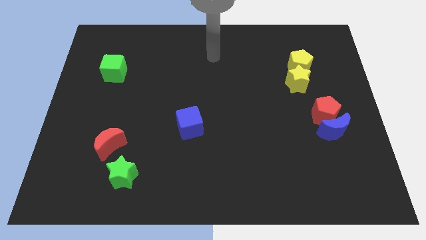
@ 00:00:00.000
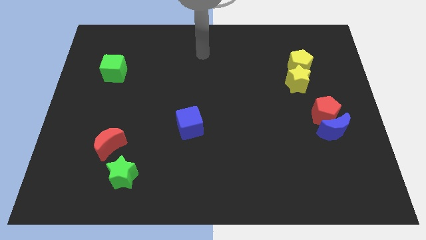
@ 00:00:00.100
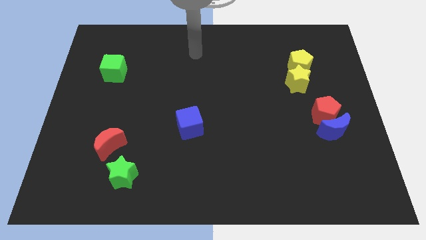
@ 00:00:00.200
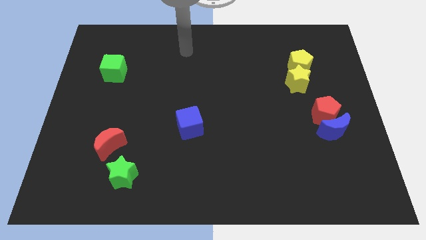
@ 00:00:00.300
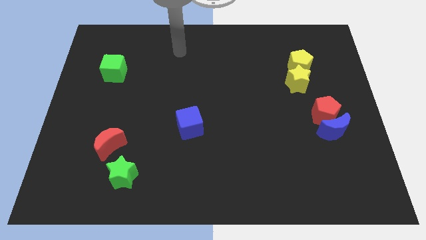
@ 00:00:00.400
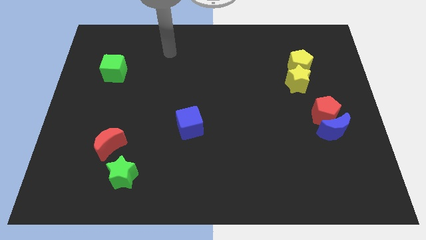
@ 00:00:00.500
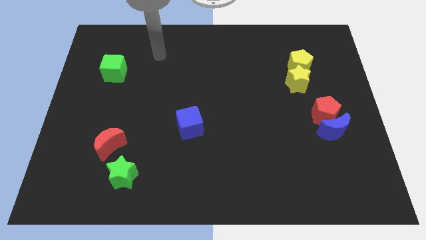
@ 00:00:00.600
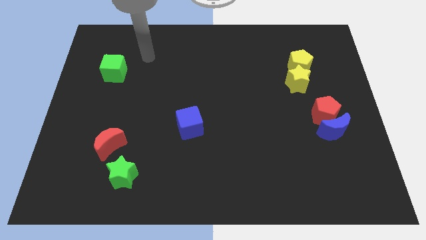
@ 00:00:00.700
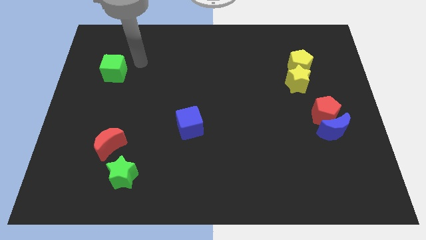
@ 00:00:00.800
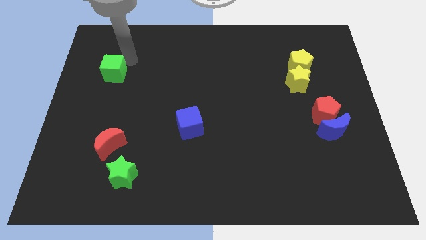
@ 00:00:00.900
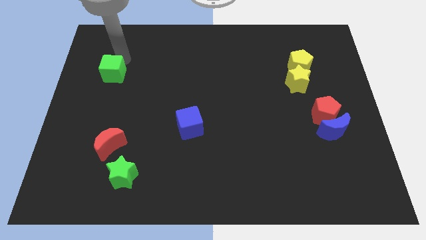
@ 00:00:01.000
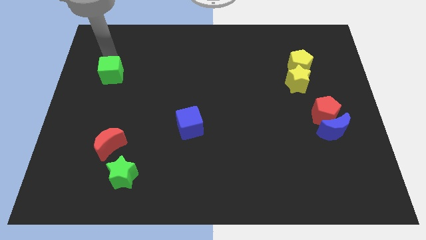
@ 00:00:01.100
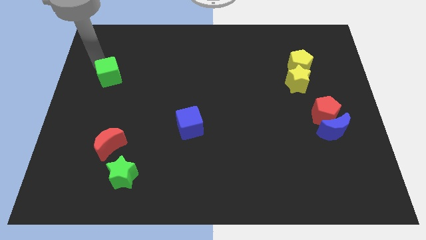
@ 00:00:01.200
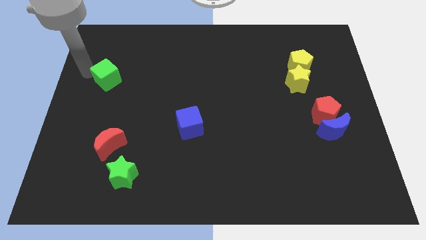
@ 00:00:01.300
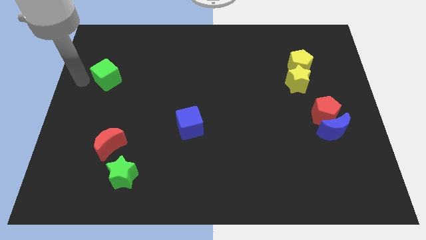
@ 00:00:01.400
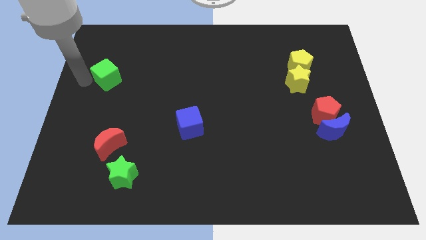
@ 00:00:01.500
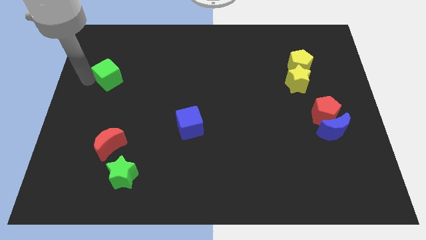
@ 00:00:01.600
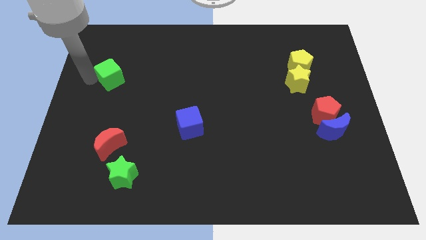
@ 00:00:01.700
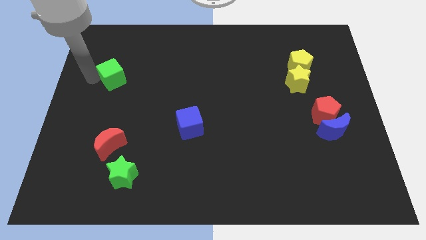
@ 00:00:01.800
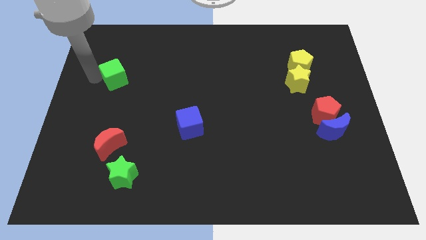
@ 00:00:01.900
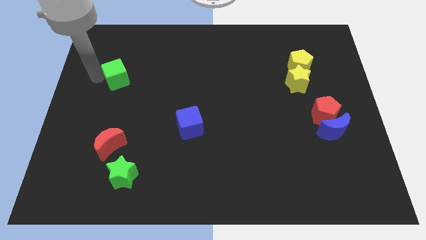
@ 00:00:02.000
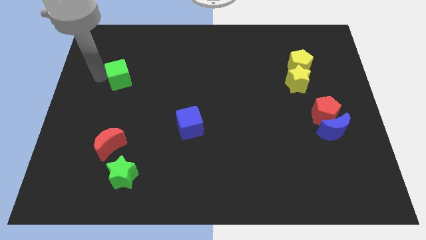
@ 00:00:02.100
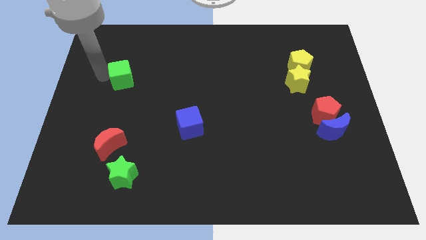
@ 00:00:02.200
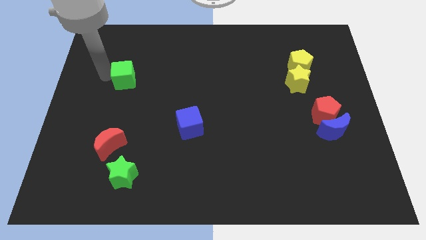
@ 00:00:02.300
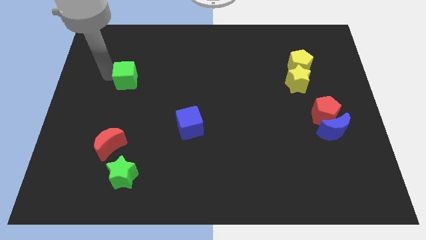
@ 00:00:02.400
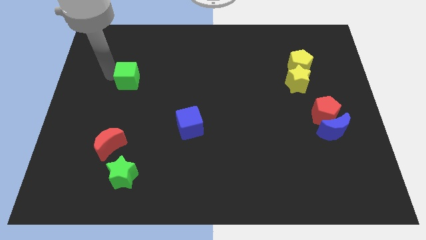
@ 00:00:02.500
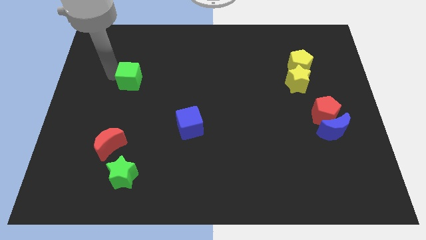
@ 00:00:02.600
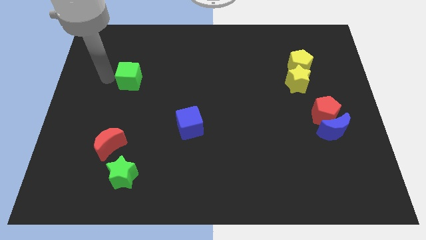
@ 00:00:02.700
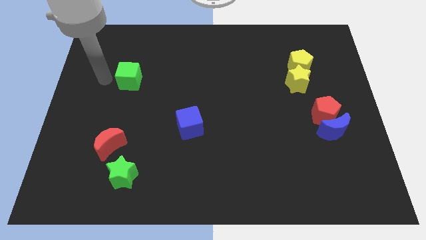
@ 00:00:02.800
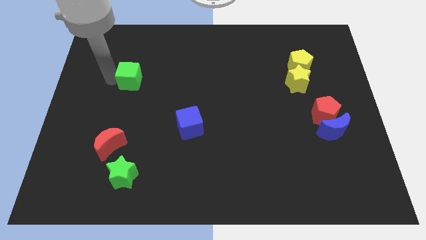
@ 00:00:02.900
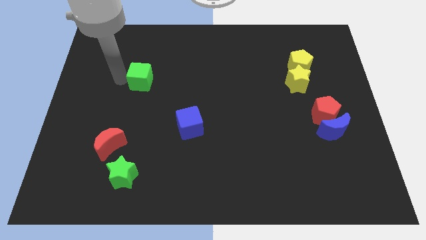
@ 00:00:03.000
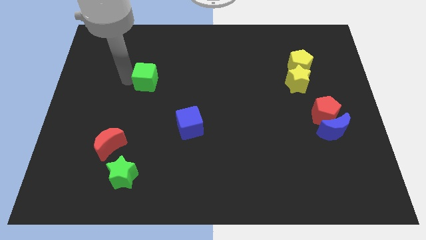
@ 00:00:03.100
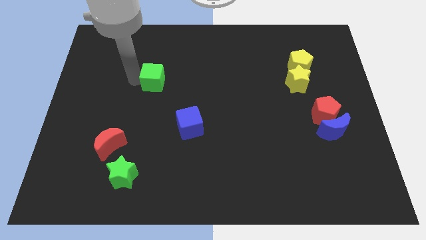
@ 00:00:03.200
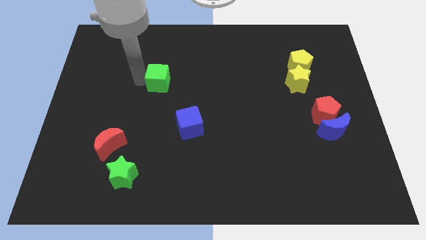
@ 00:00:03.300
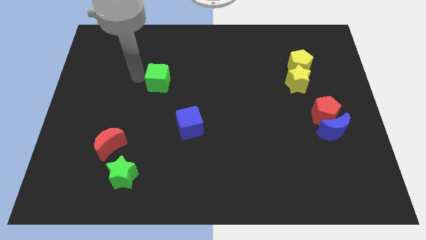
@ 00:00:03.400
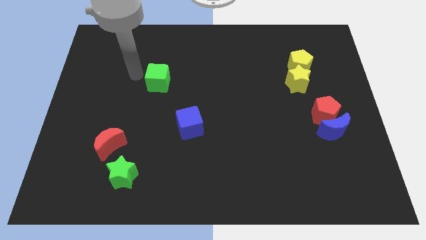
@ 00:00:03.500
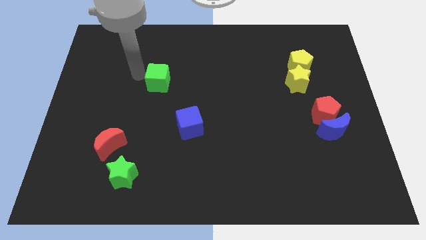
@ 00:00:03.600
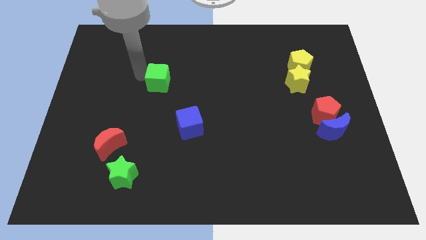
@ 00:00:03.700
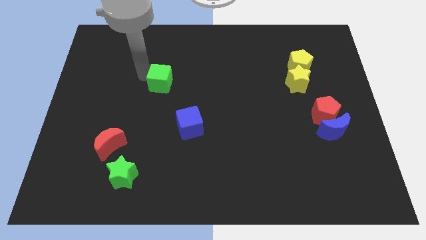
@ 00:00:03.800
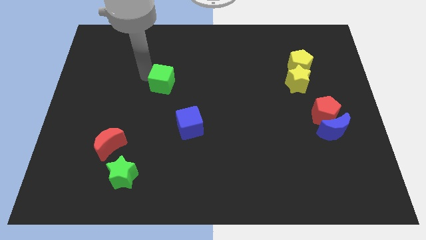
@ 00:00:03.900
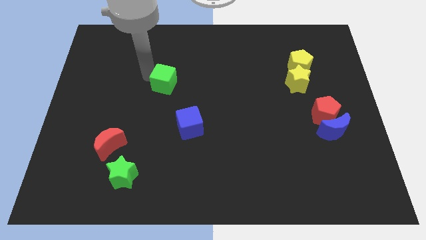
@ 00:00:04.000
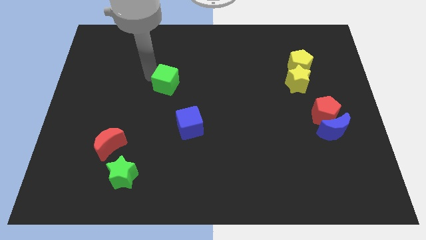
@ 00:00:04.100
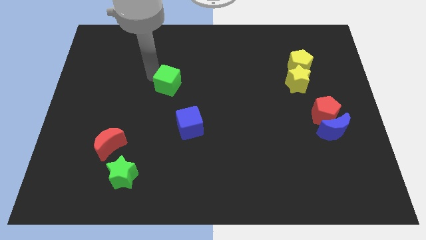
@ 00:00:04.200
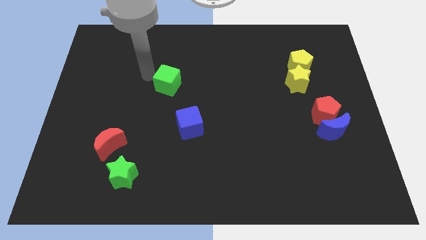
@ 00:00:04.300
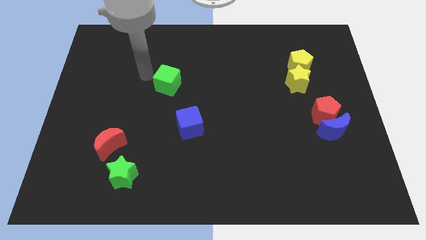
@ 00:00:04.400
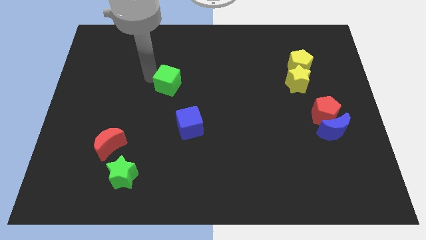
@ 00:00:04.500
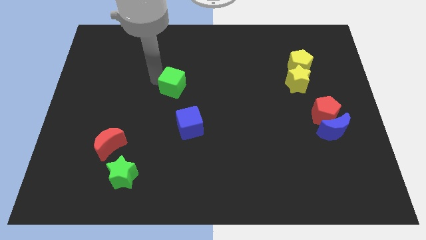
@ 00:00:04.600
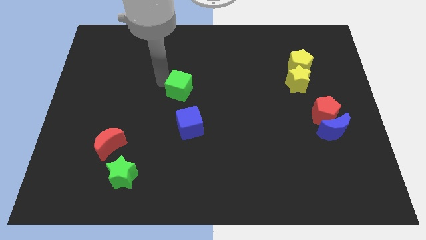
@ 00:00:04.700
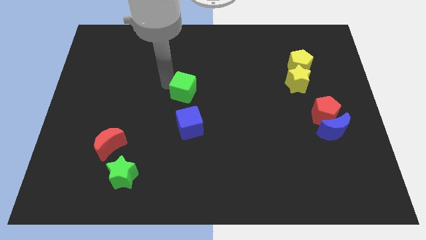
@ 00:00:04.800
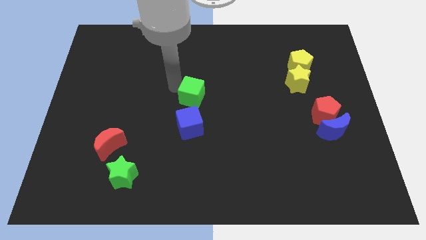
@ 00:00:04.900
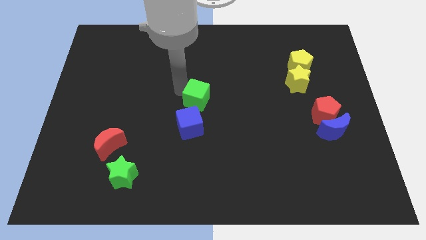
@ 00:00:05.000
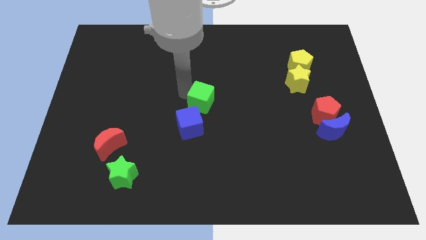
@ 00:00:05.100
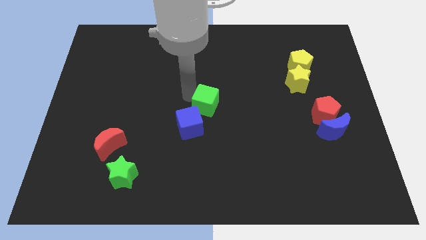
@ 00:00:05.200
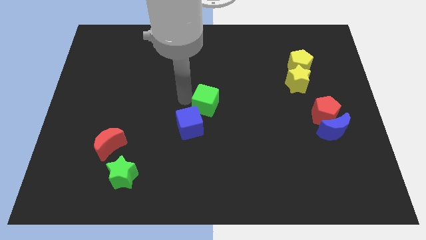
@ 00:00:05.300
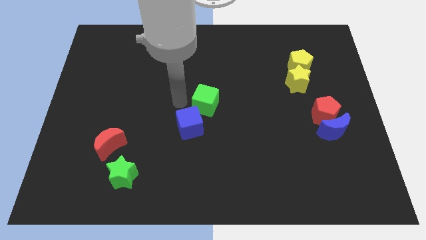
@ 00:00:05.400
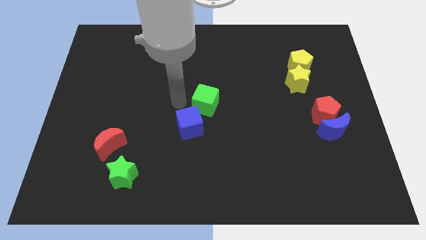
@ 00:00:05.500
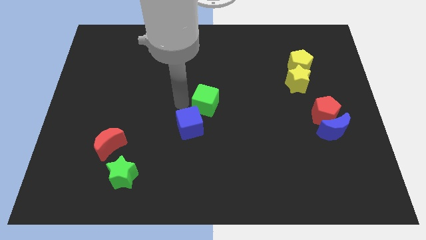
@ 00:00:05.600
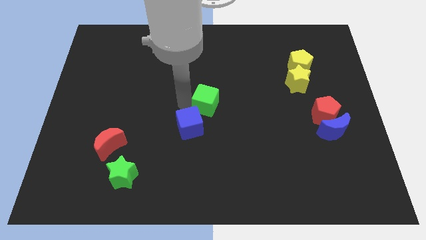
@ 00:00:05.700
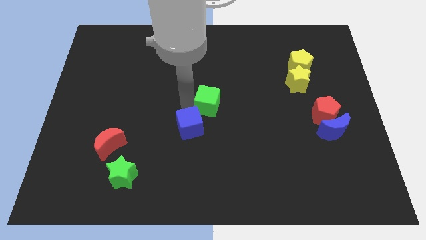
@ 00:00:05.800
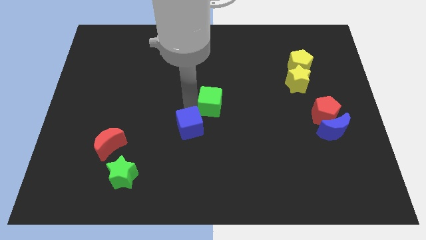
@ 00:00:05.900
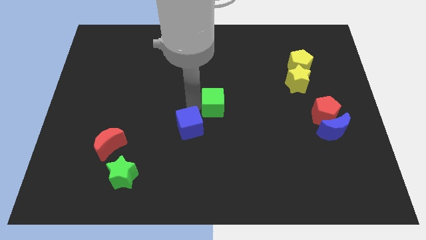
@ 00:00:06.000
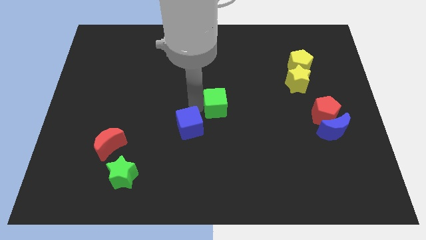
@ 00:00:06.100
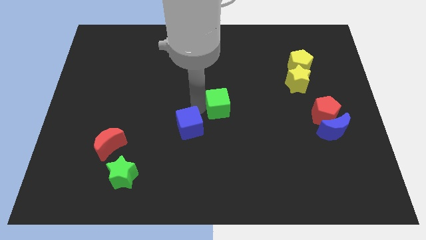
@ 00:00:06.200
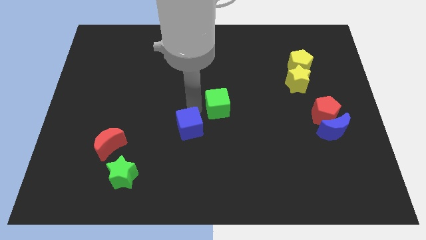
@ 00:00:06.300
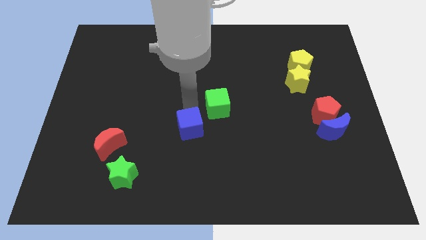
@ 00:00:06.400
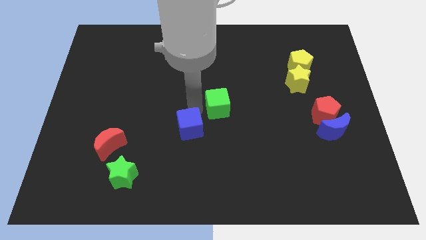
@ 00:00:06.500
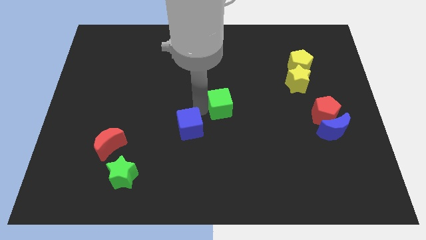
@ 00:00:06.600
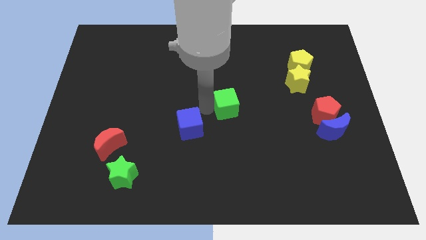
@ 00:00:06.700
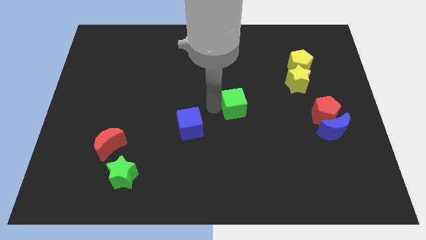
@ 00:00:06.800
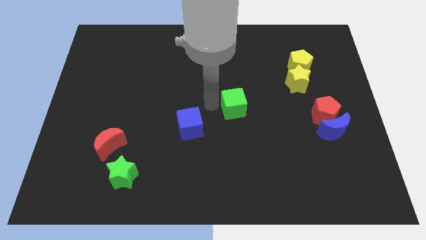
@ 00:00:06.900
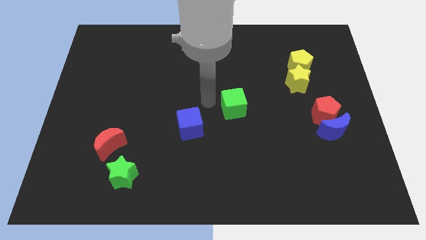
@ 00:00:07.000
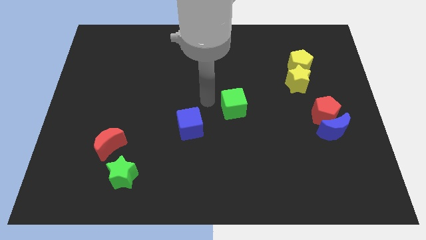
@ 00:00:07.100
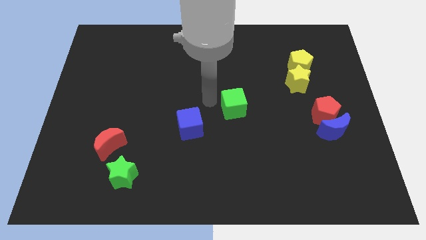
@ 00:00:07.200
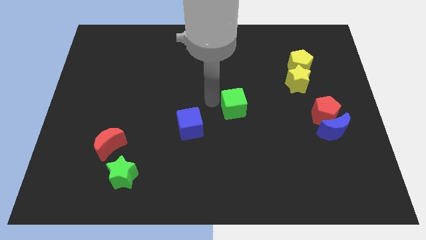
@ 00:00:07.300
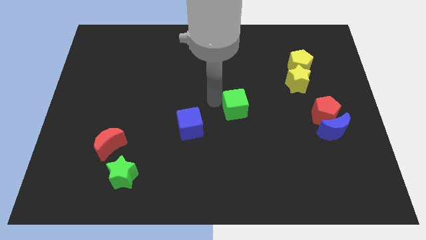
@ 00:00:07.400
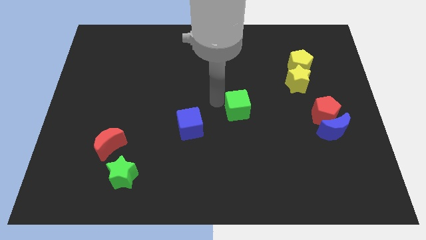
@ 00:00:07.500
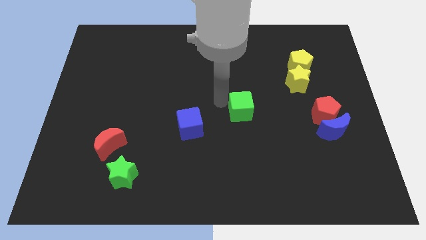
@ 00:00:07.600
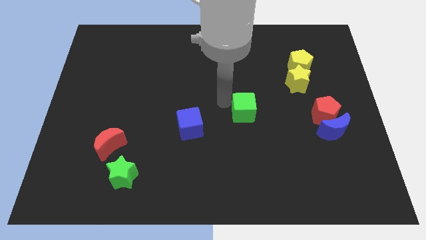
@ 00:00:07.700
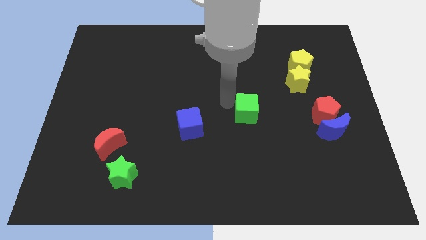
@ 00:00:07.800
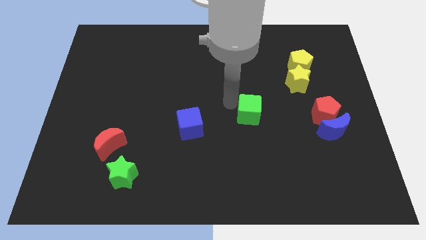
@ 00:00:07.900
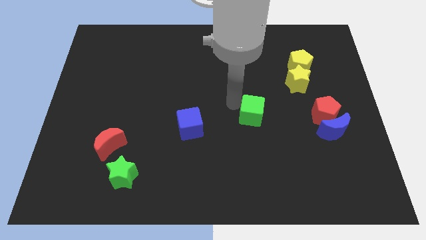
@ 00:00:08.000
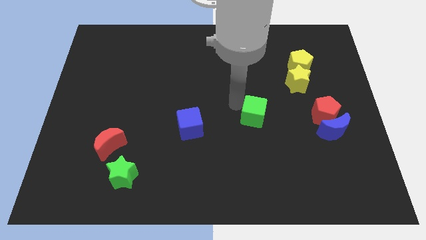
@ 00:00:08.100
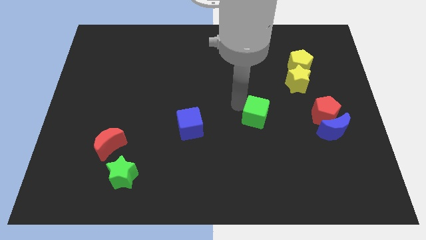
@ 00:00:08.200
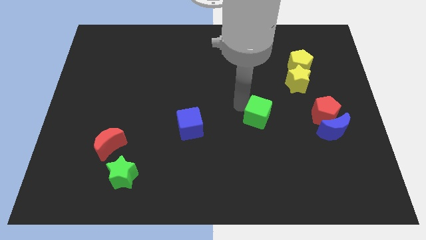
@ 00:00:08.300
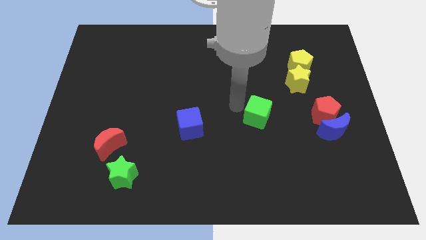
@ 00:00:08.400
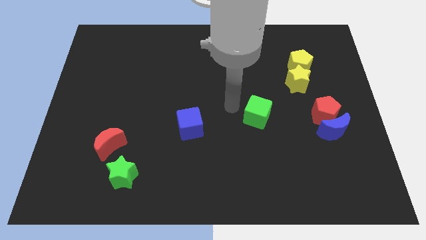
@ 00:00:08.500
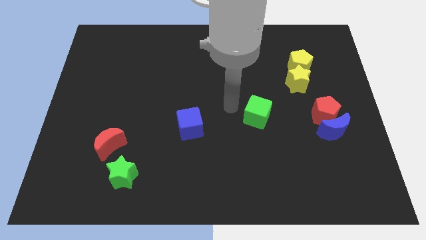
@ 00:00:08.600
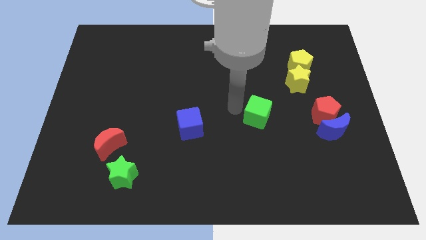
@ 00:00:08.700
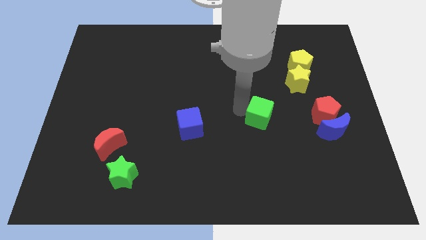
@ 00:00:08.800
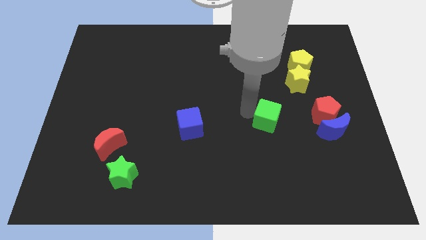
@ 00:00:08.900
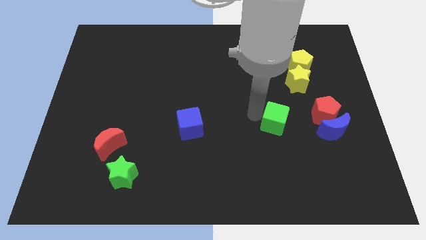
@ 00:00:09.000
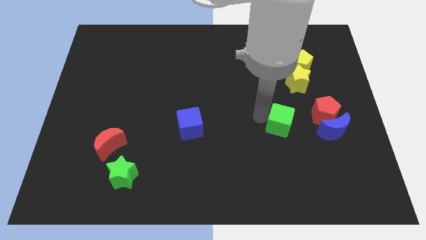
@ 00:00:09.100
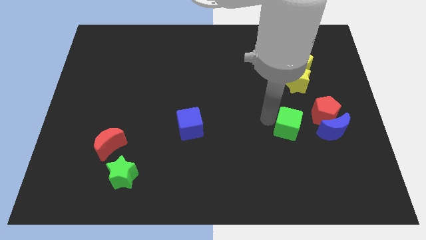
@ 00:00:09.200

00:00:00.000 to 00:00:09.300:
slide the green cube diagonally down and to the left of the red pentagon
